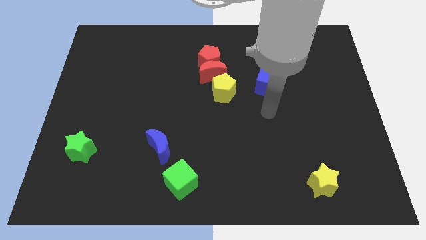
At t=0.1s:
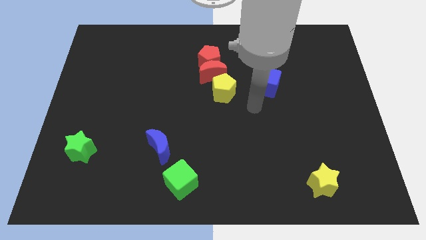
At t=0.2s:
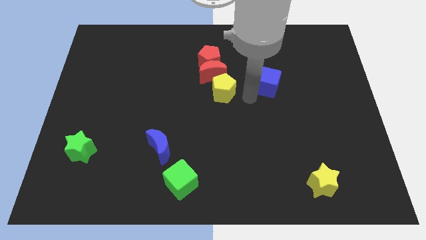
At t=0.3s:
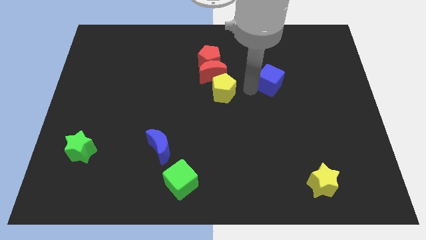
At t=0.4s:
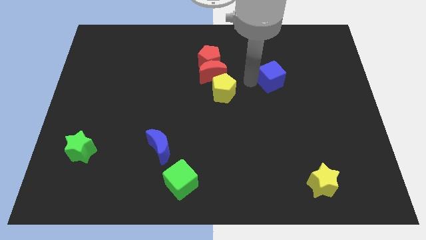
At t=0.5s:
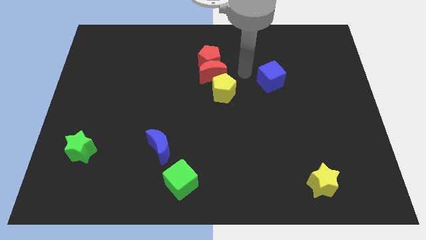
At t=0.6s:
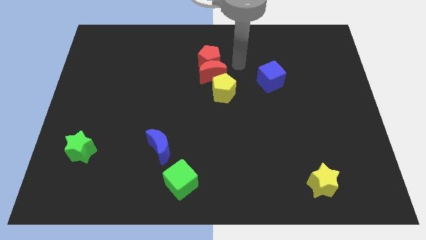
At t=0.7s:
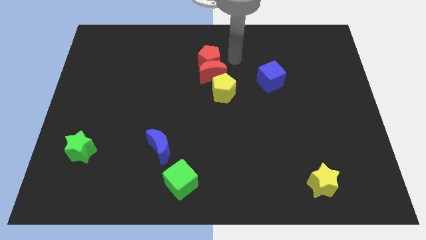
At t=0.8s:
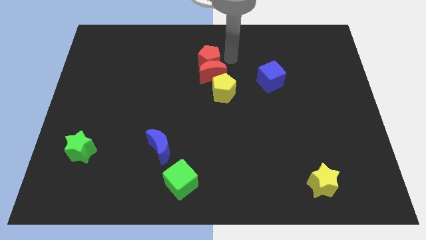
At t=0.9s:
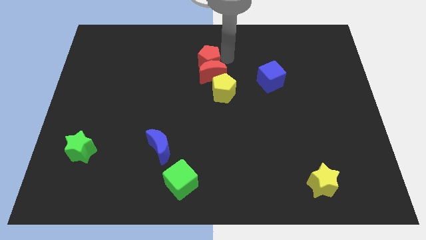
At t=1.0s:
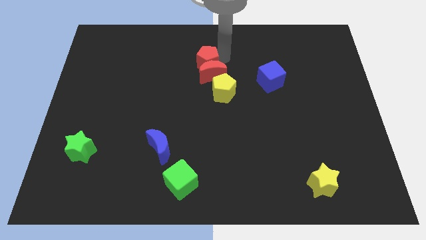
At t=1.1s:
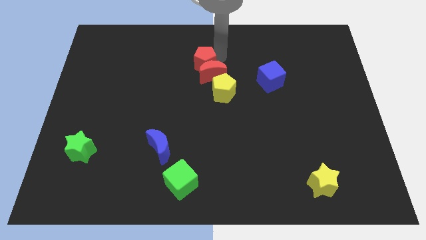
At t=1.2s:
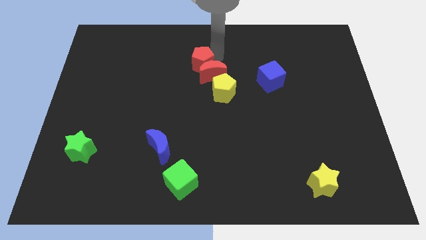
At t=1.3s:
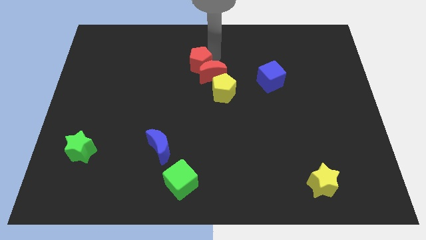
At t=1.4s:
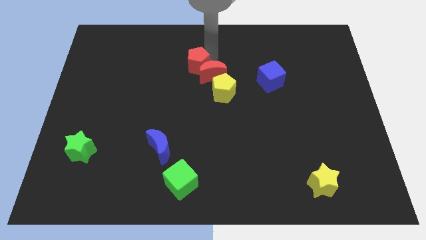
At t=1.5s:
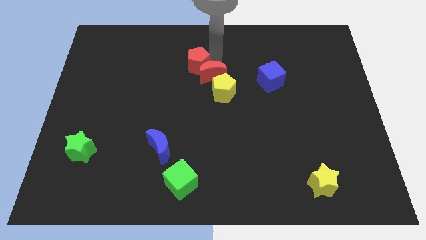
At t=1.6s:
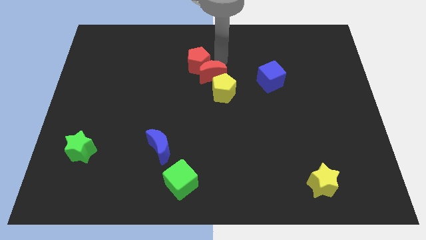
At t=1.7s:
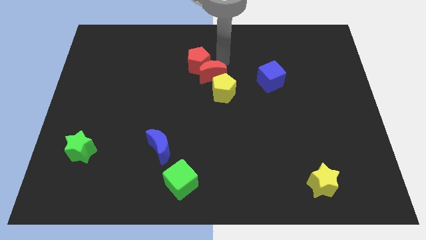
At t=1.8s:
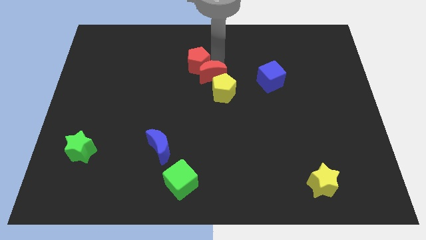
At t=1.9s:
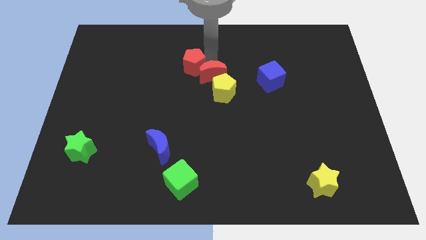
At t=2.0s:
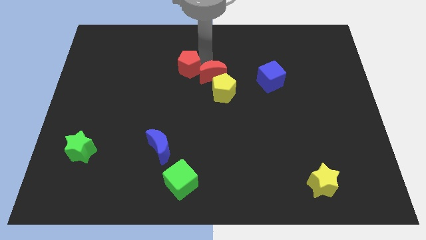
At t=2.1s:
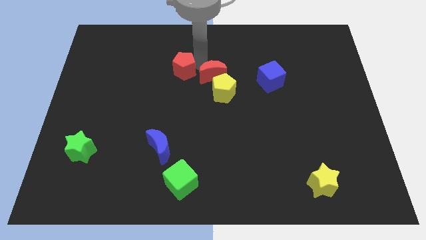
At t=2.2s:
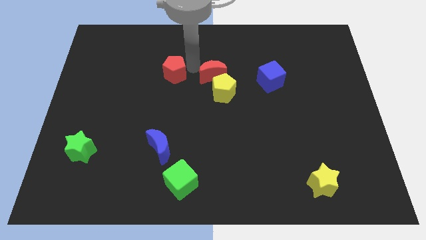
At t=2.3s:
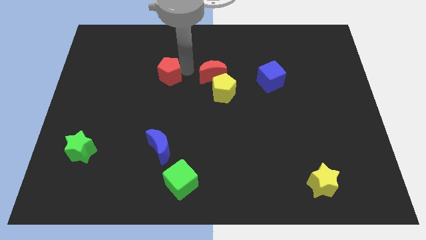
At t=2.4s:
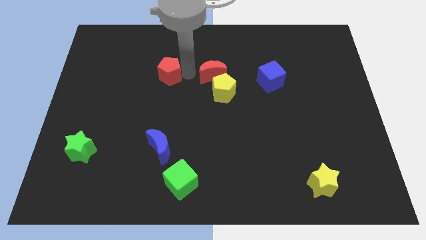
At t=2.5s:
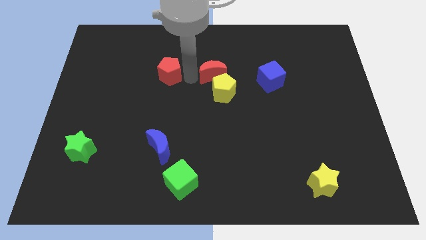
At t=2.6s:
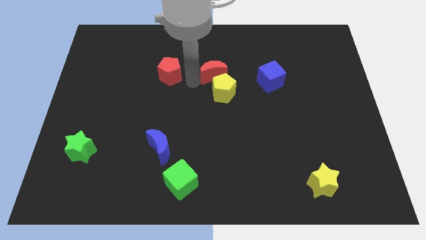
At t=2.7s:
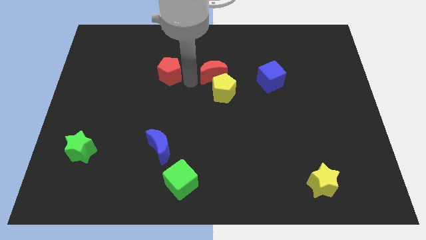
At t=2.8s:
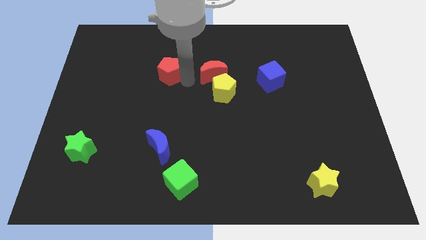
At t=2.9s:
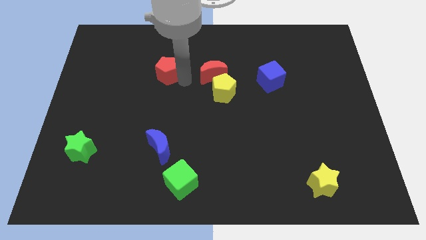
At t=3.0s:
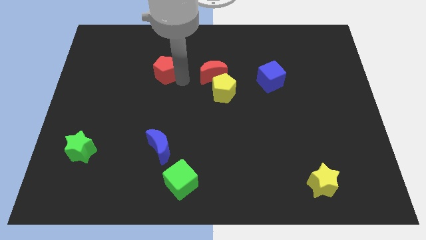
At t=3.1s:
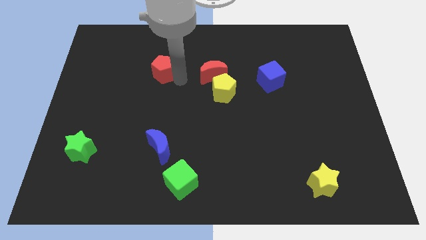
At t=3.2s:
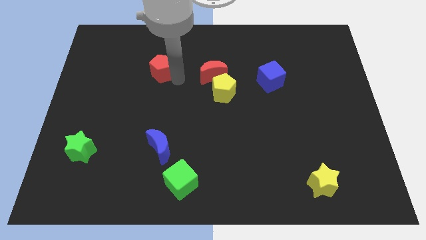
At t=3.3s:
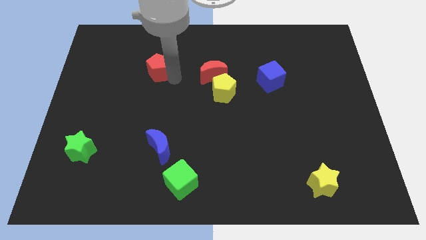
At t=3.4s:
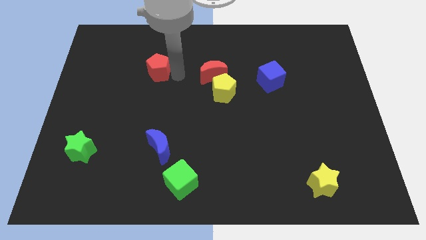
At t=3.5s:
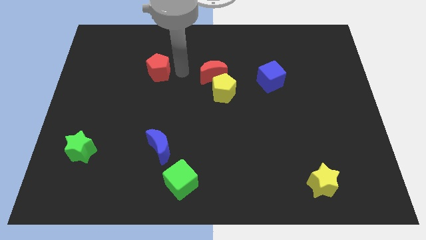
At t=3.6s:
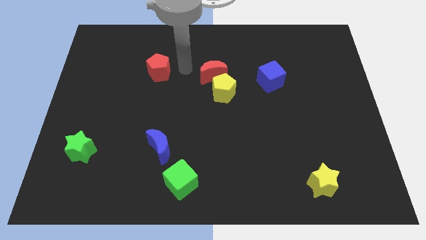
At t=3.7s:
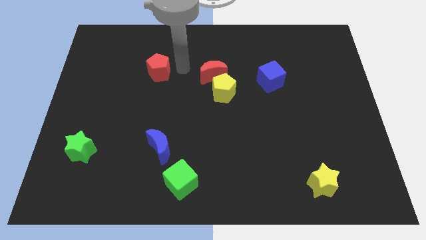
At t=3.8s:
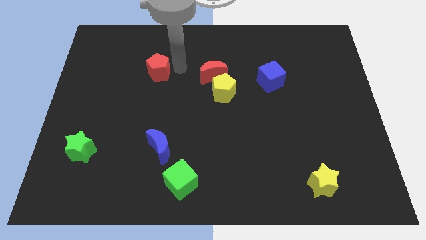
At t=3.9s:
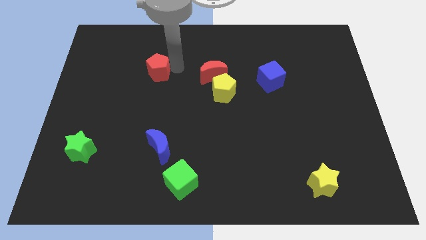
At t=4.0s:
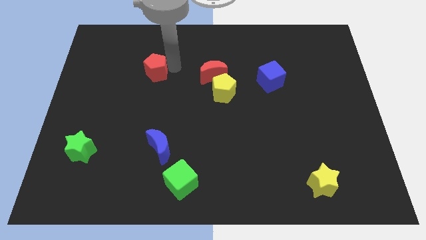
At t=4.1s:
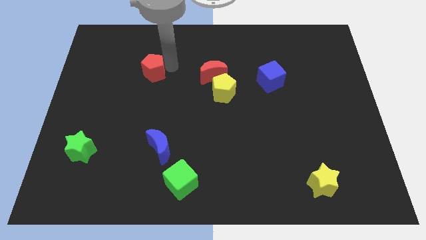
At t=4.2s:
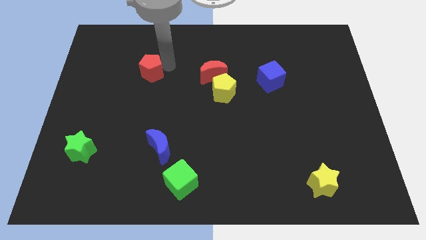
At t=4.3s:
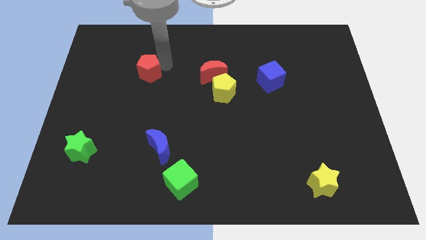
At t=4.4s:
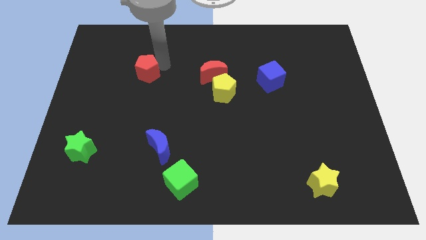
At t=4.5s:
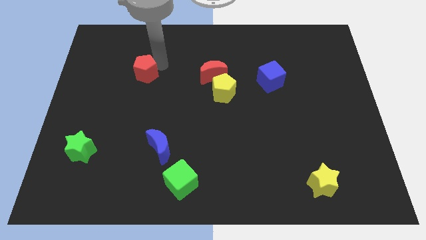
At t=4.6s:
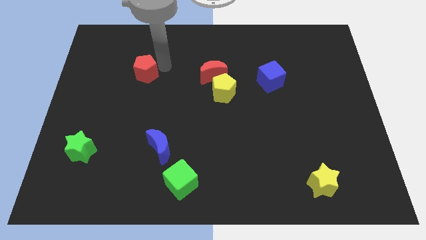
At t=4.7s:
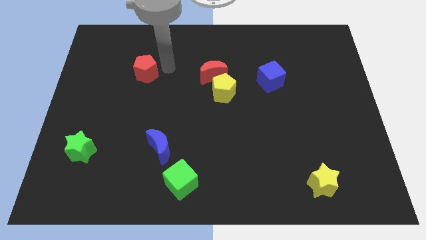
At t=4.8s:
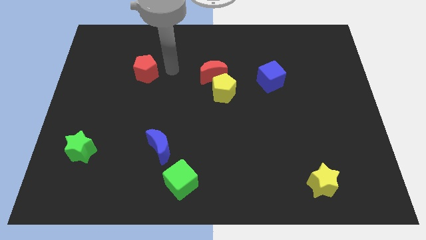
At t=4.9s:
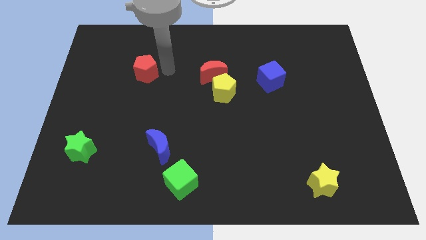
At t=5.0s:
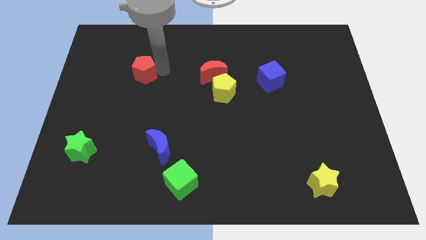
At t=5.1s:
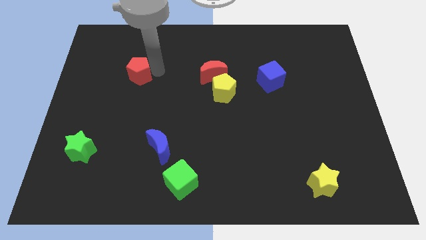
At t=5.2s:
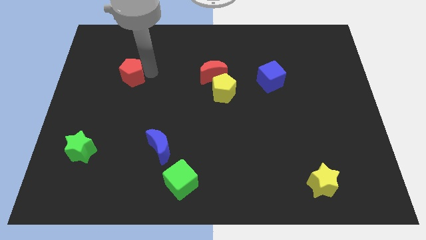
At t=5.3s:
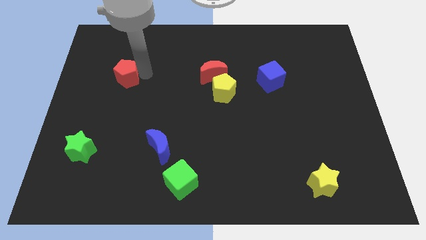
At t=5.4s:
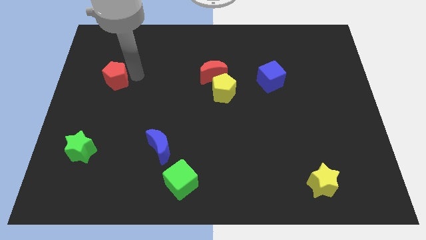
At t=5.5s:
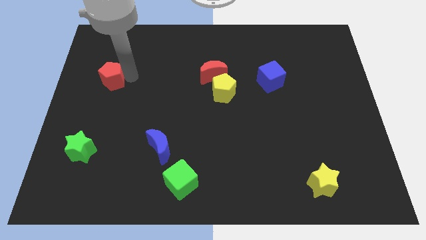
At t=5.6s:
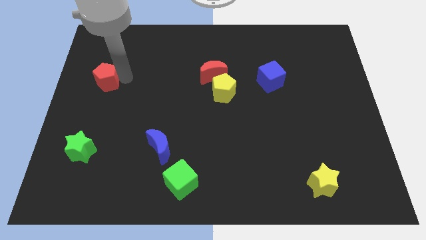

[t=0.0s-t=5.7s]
put the red pentagon to the left side of the board

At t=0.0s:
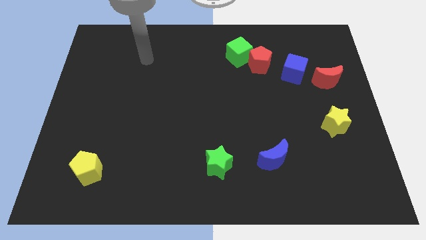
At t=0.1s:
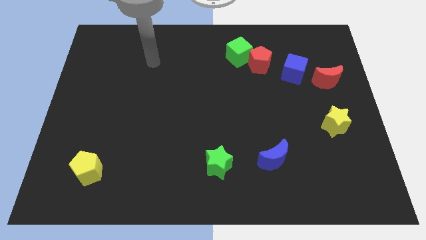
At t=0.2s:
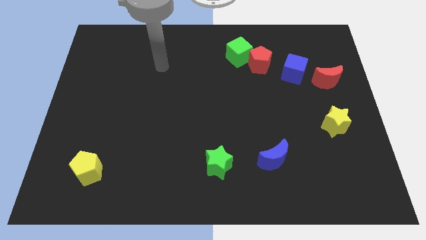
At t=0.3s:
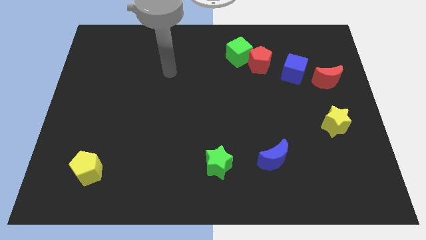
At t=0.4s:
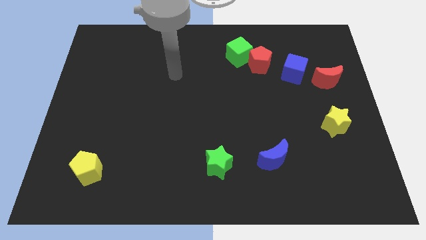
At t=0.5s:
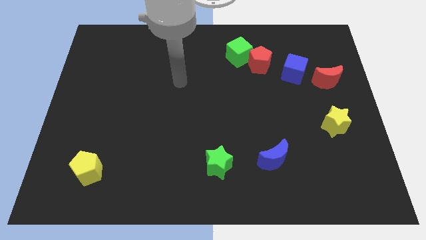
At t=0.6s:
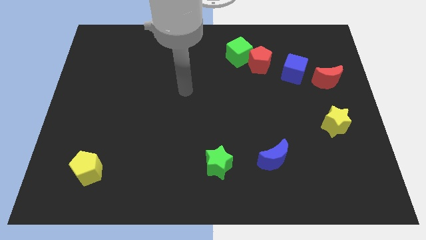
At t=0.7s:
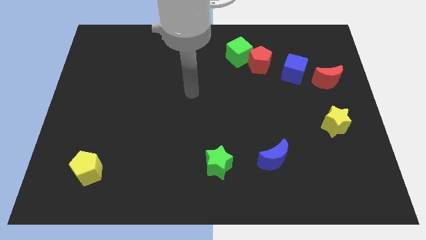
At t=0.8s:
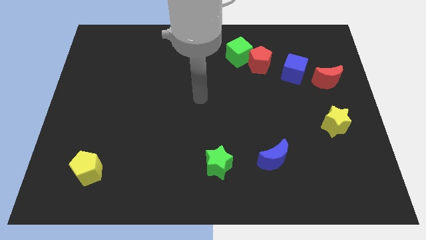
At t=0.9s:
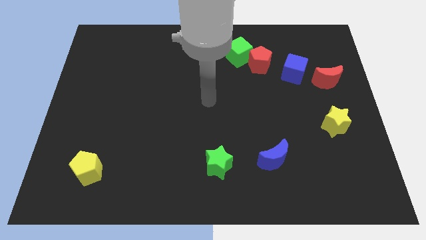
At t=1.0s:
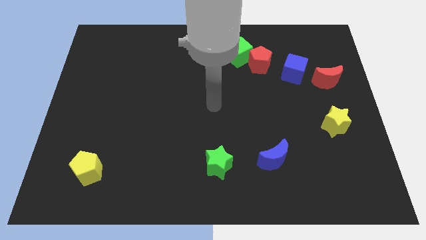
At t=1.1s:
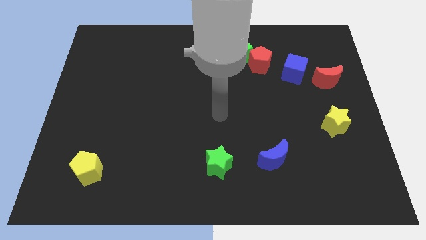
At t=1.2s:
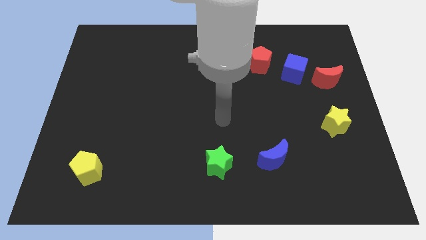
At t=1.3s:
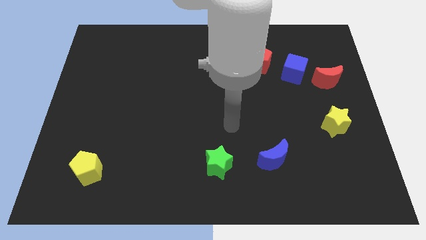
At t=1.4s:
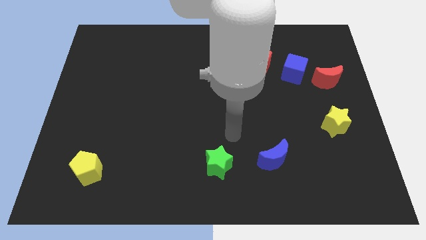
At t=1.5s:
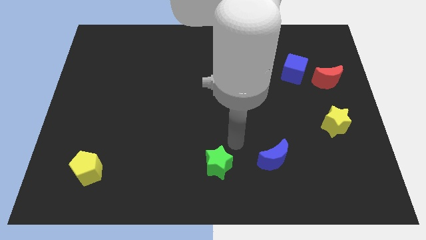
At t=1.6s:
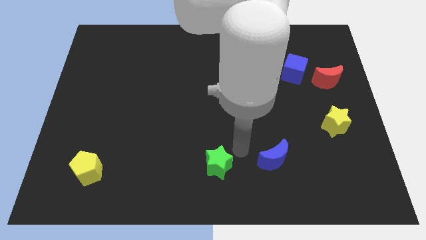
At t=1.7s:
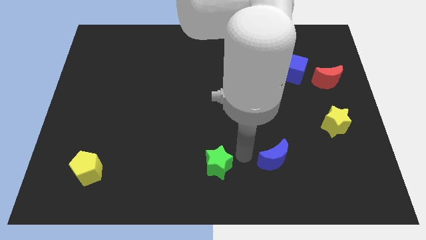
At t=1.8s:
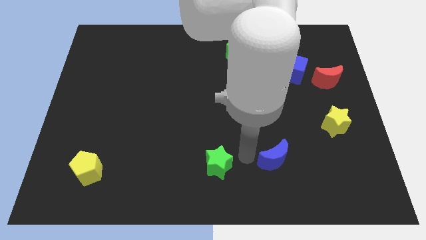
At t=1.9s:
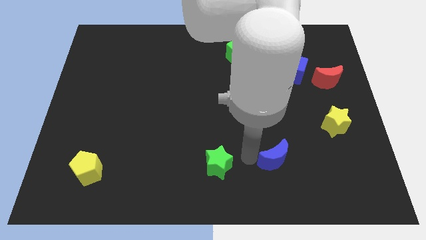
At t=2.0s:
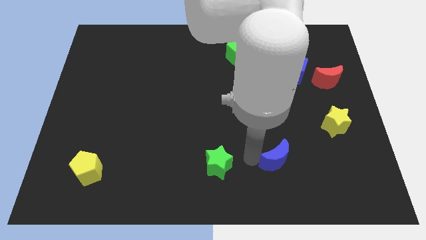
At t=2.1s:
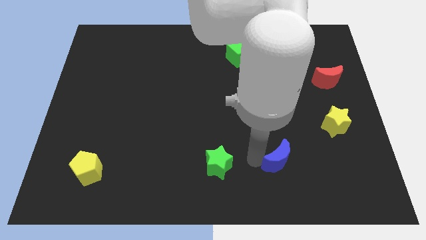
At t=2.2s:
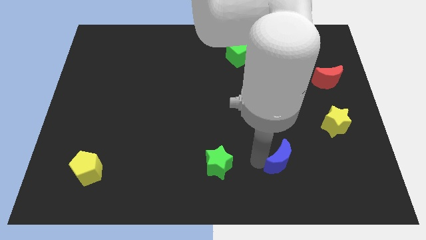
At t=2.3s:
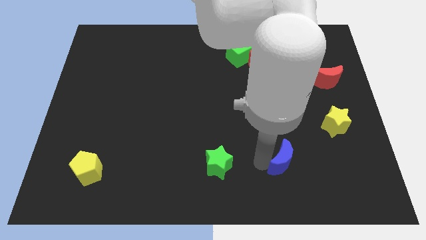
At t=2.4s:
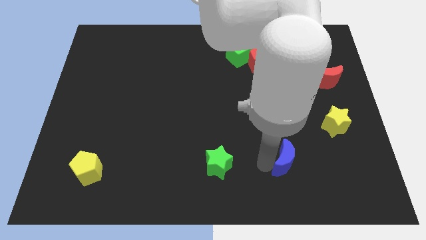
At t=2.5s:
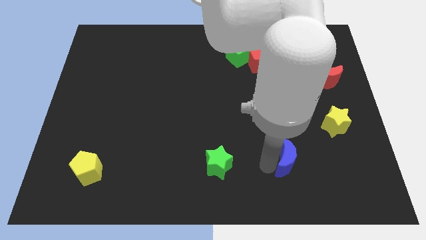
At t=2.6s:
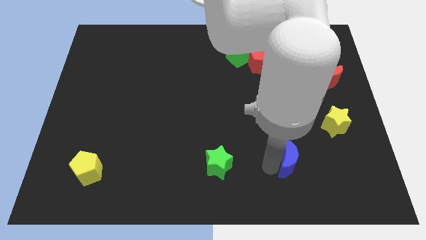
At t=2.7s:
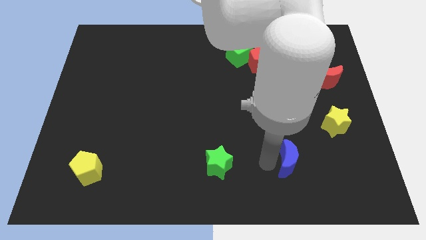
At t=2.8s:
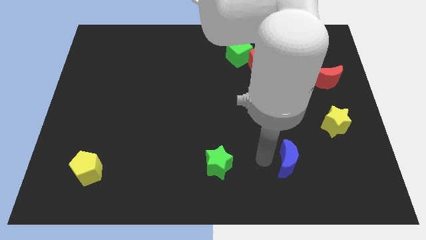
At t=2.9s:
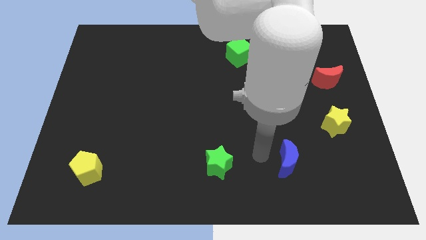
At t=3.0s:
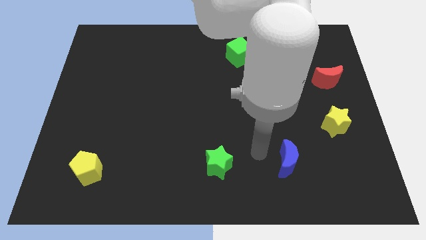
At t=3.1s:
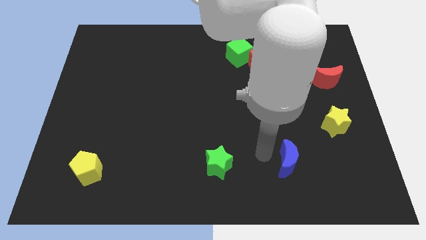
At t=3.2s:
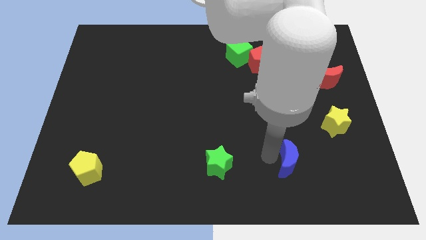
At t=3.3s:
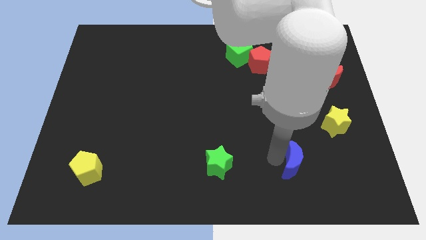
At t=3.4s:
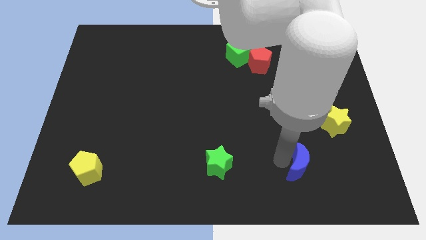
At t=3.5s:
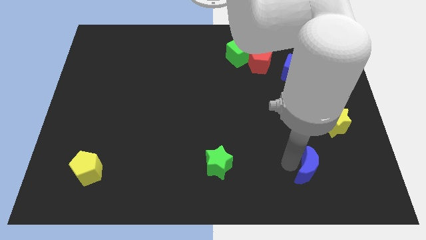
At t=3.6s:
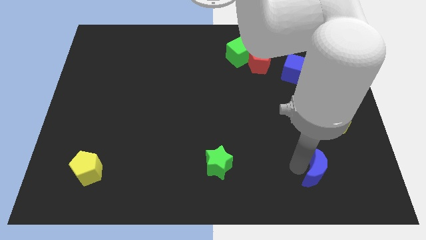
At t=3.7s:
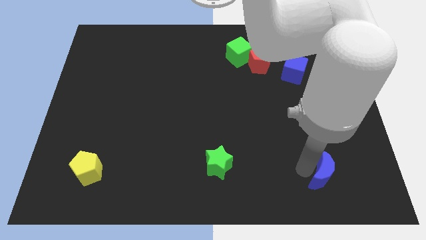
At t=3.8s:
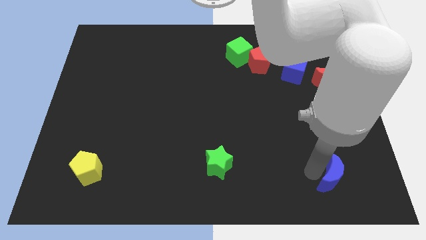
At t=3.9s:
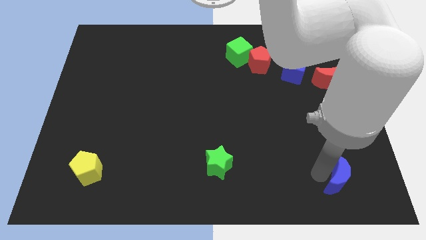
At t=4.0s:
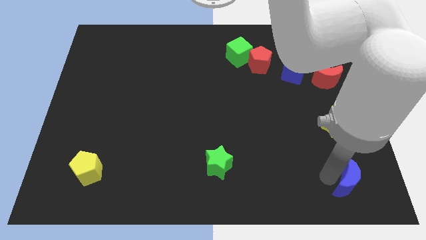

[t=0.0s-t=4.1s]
move the blue moon to the bottom right
